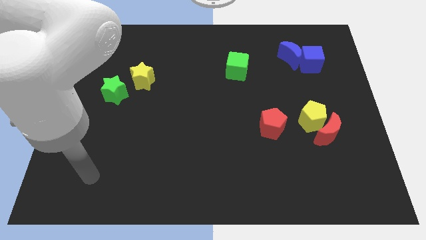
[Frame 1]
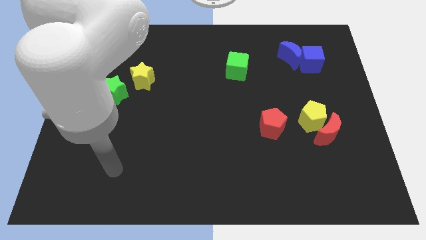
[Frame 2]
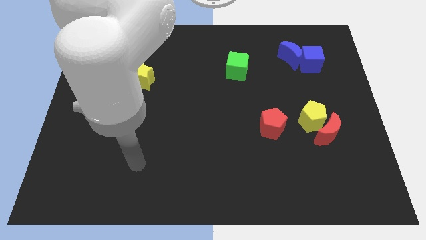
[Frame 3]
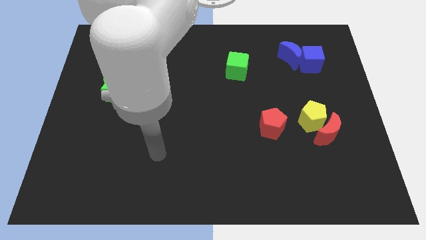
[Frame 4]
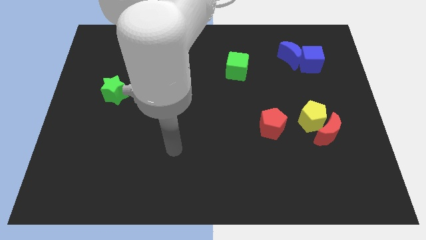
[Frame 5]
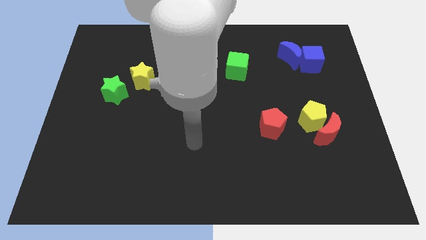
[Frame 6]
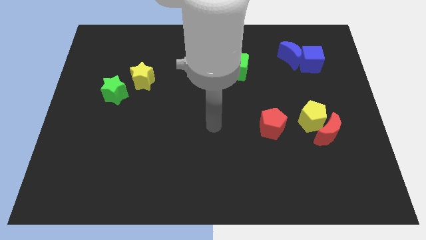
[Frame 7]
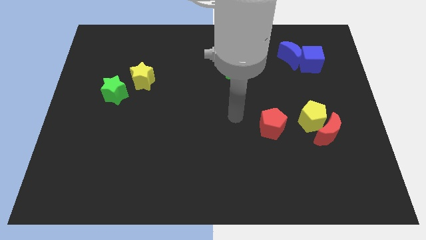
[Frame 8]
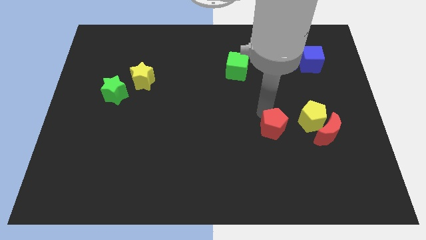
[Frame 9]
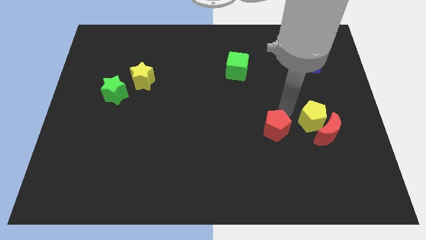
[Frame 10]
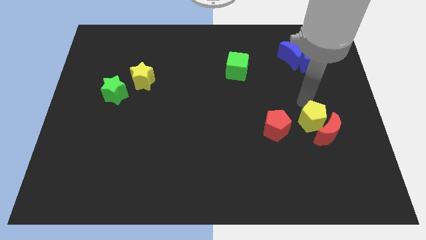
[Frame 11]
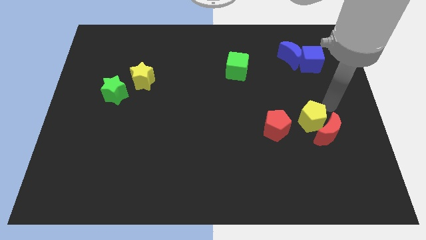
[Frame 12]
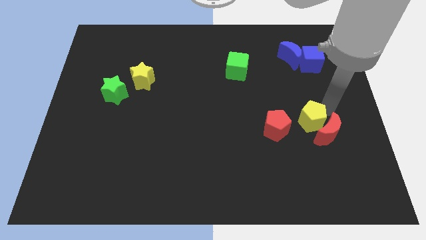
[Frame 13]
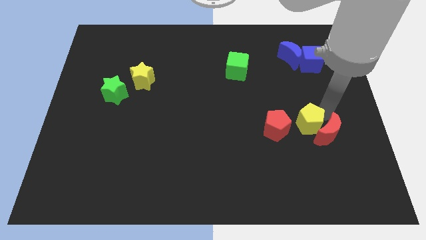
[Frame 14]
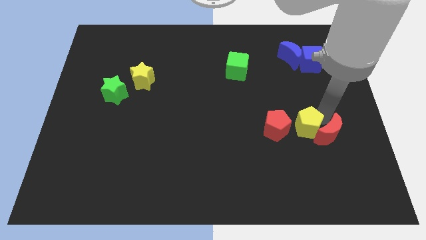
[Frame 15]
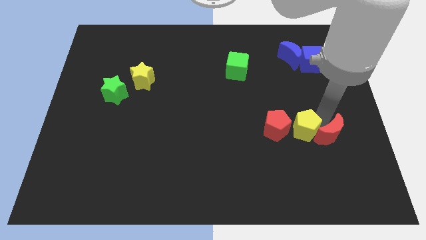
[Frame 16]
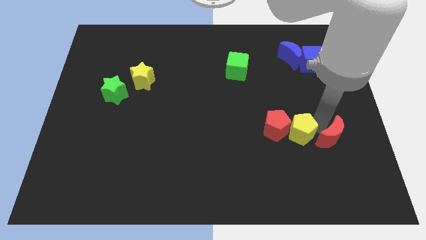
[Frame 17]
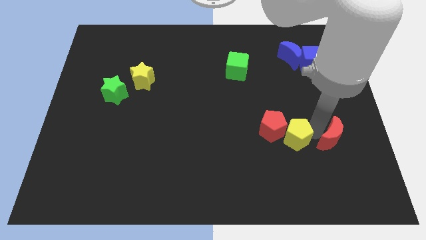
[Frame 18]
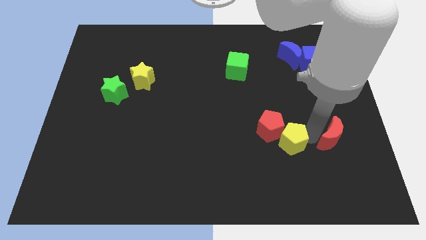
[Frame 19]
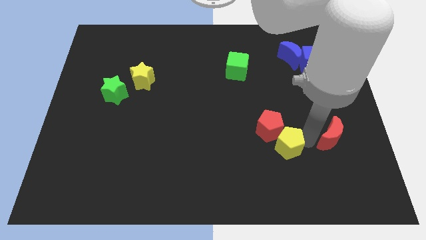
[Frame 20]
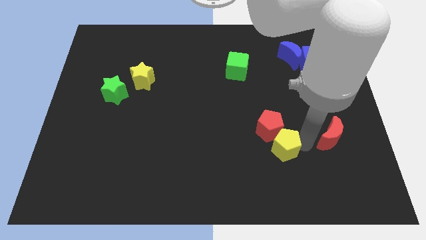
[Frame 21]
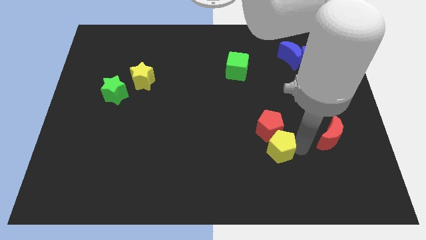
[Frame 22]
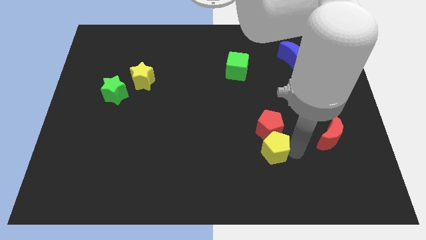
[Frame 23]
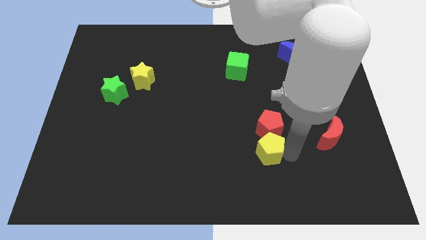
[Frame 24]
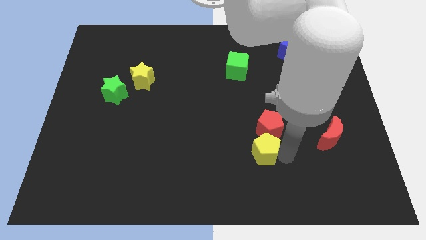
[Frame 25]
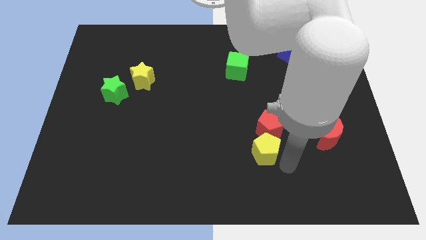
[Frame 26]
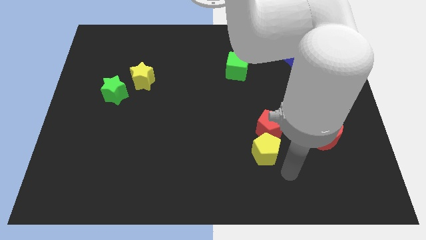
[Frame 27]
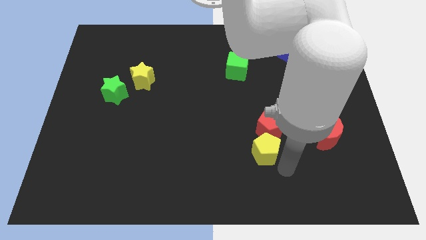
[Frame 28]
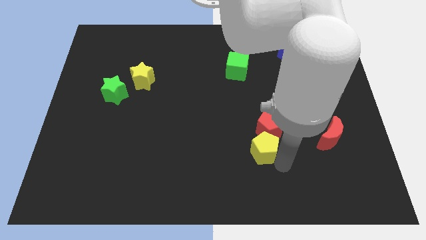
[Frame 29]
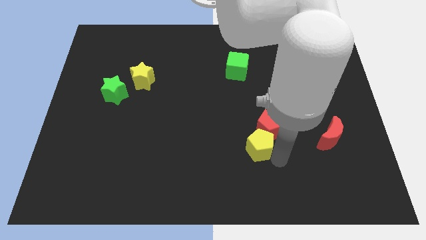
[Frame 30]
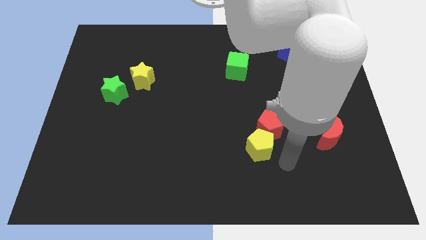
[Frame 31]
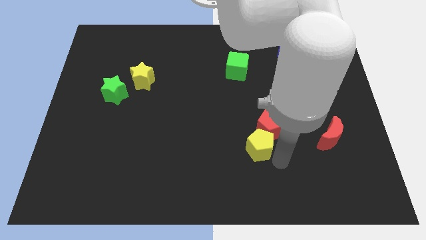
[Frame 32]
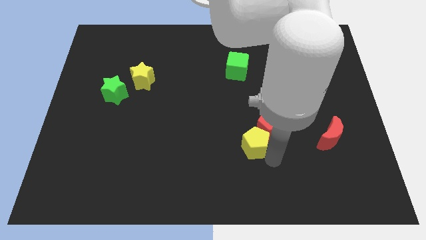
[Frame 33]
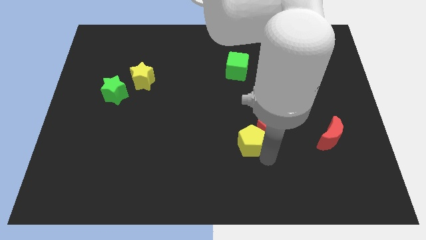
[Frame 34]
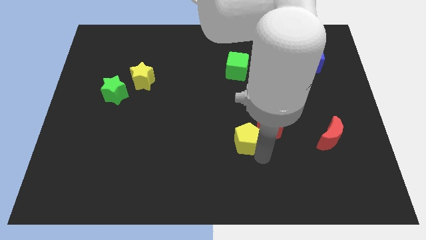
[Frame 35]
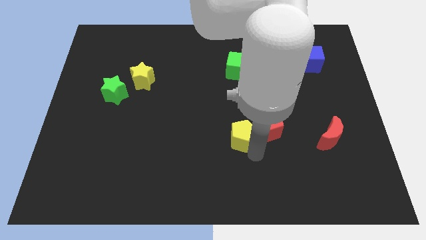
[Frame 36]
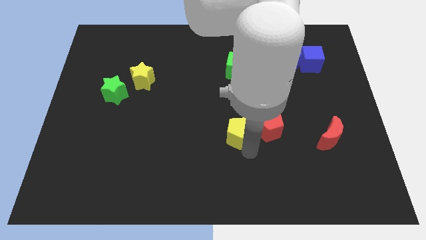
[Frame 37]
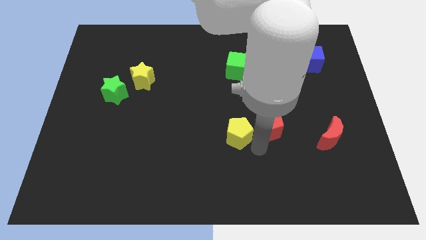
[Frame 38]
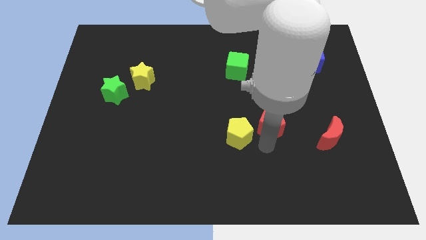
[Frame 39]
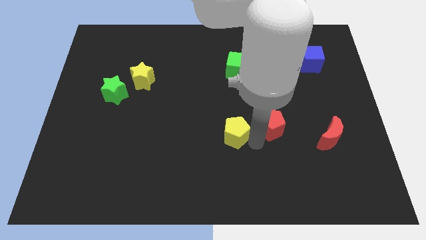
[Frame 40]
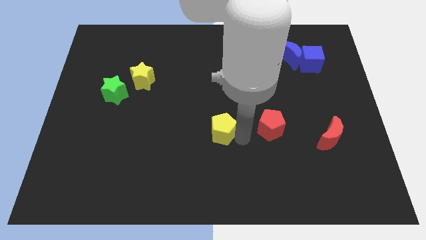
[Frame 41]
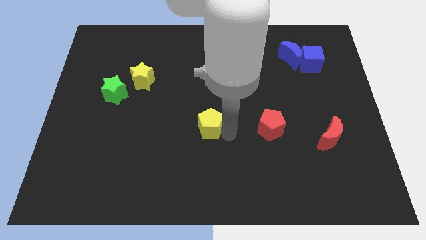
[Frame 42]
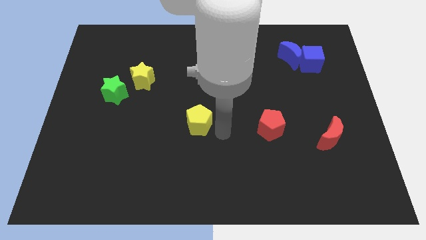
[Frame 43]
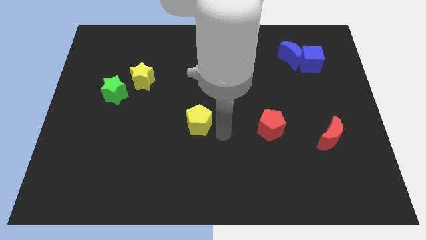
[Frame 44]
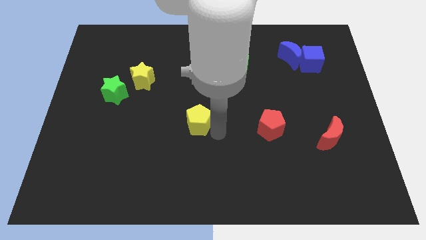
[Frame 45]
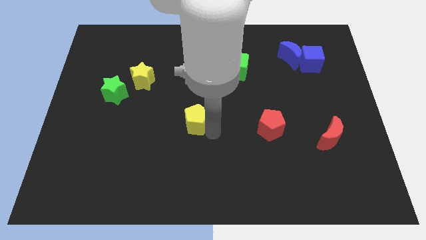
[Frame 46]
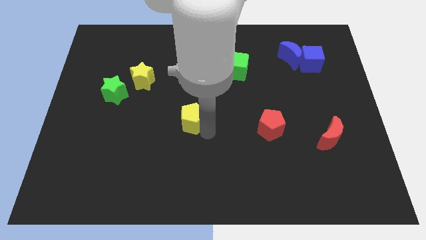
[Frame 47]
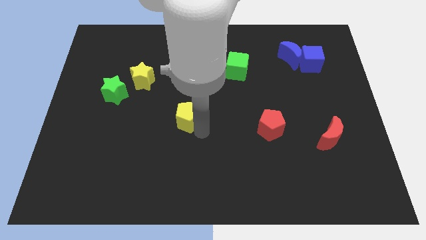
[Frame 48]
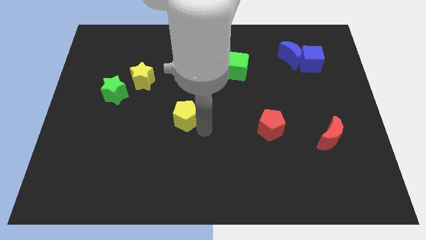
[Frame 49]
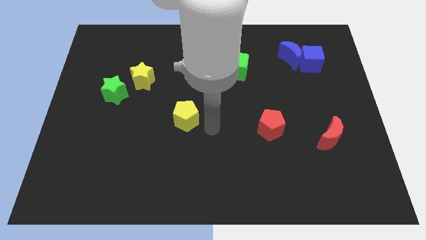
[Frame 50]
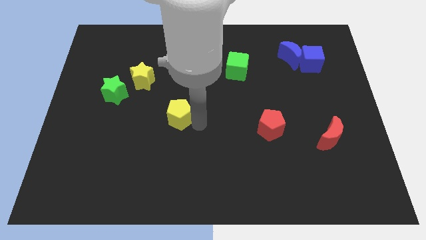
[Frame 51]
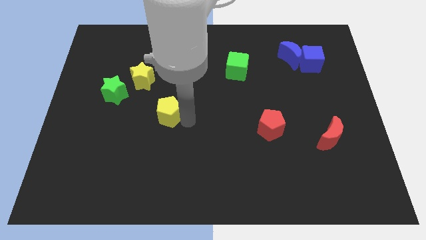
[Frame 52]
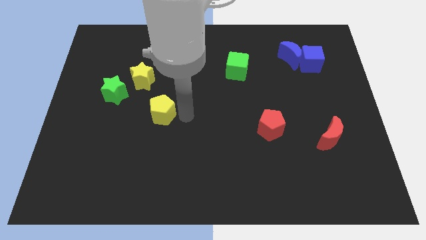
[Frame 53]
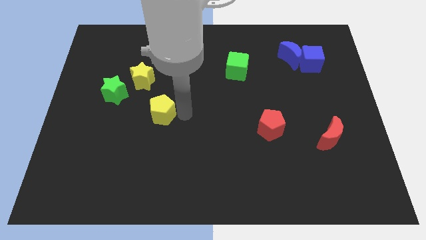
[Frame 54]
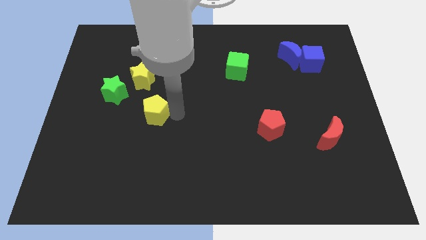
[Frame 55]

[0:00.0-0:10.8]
push the yellow pentagon to the bottom of the yellow star

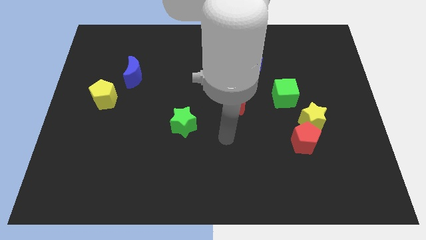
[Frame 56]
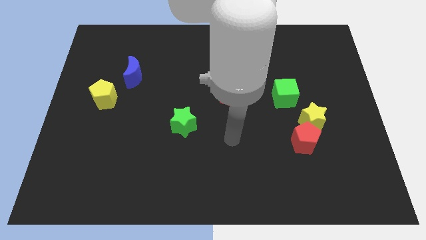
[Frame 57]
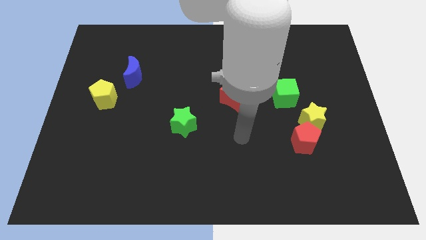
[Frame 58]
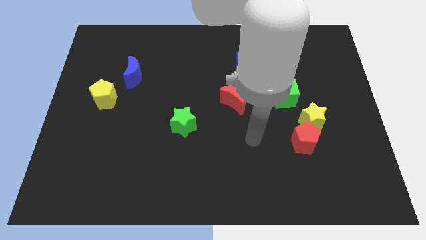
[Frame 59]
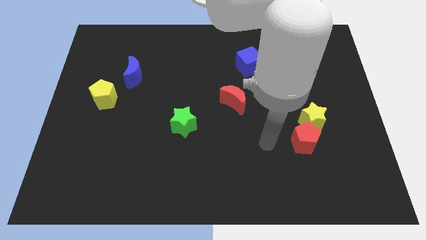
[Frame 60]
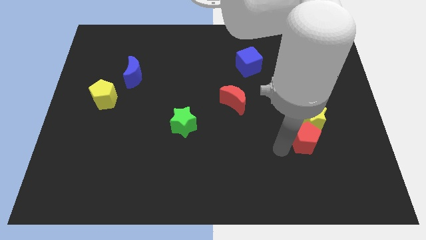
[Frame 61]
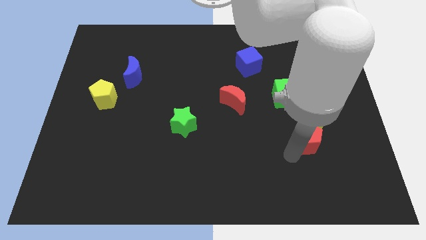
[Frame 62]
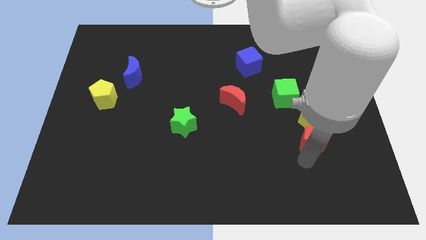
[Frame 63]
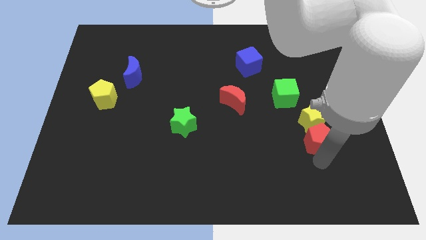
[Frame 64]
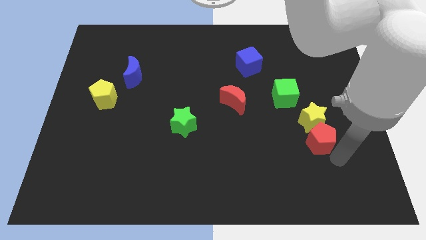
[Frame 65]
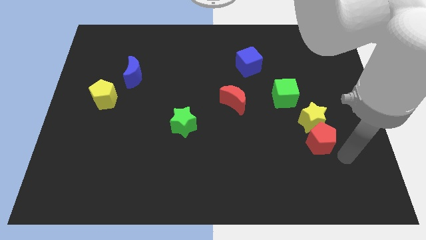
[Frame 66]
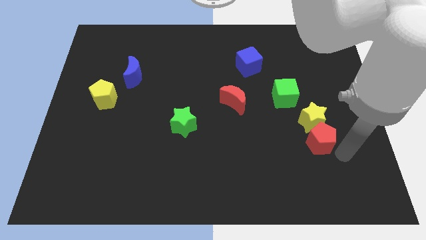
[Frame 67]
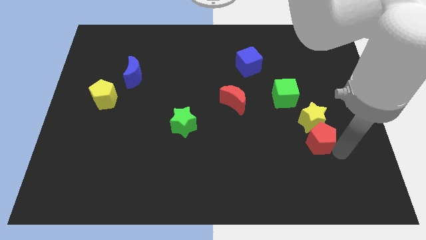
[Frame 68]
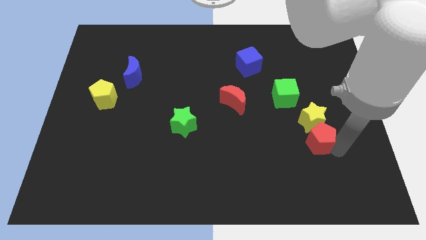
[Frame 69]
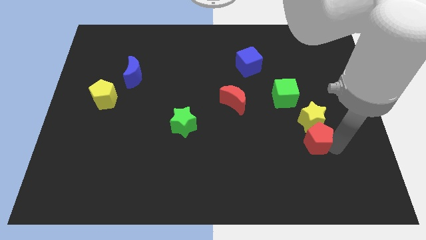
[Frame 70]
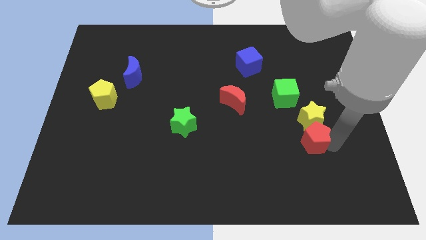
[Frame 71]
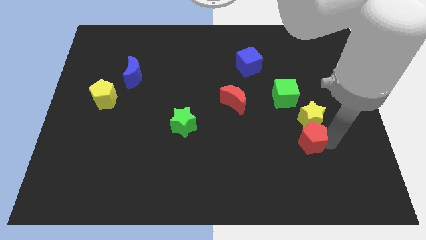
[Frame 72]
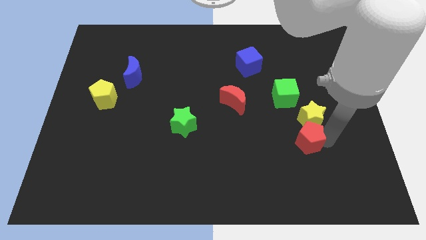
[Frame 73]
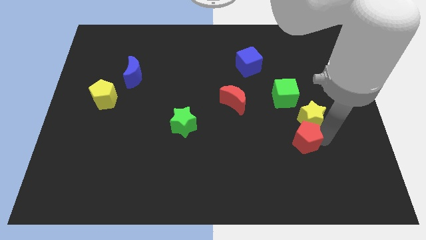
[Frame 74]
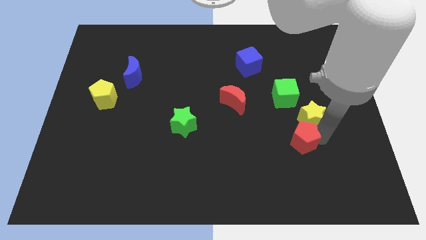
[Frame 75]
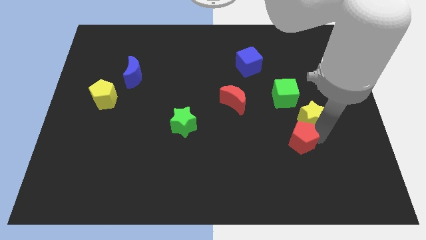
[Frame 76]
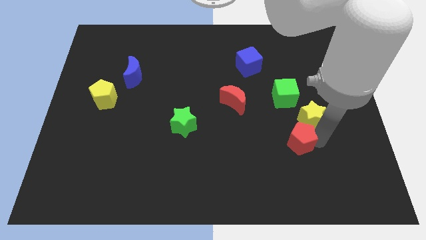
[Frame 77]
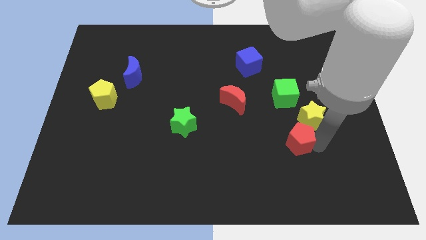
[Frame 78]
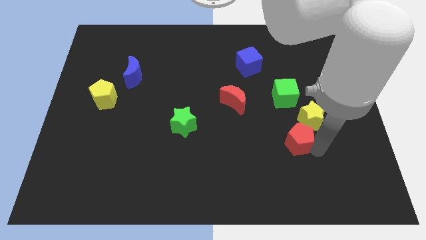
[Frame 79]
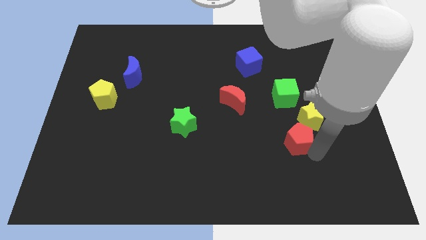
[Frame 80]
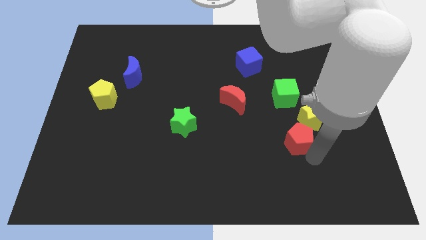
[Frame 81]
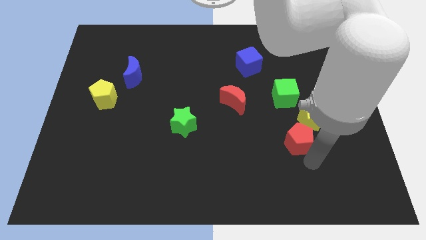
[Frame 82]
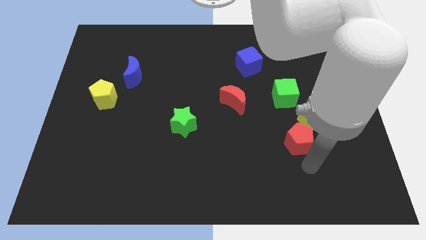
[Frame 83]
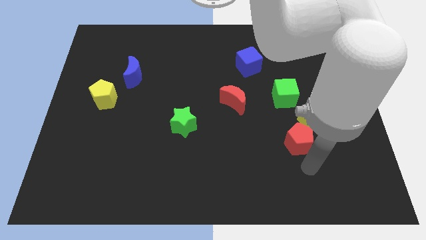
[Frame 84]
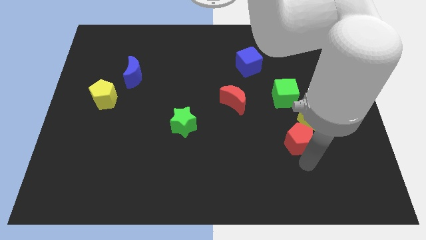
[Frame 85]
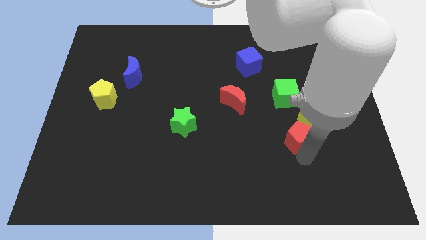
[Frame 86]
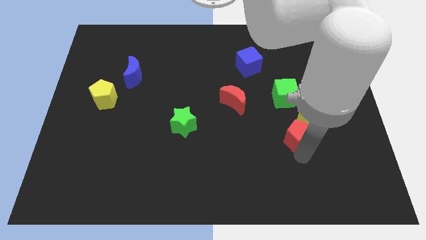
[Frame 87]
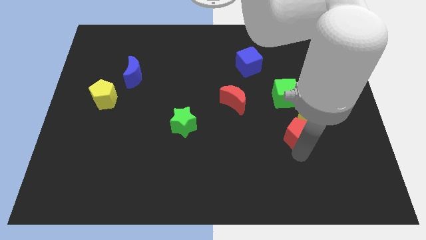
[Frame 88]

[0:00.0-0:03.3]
move the red pentagon left of the yellow star
